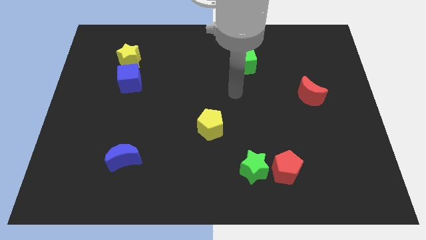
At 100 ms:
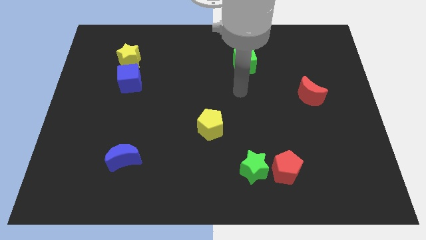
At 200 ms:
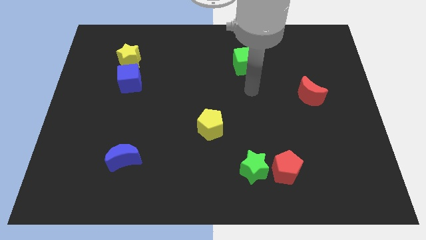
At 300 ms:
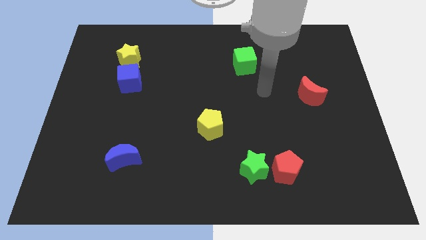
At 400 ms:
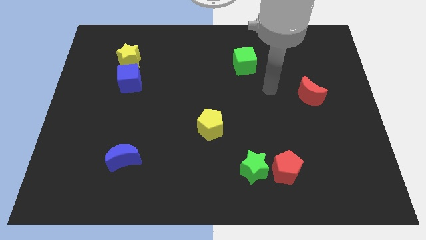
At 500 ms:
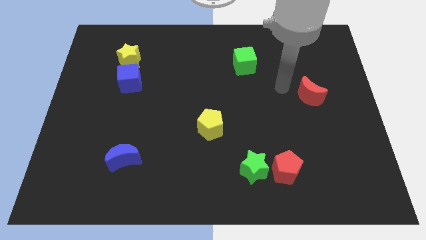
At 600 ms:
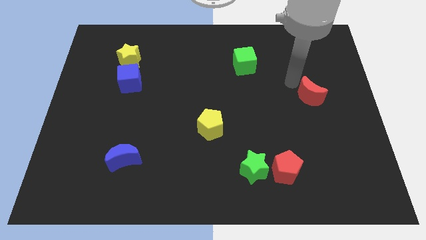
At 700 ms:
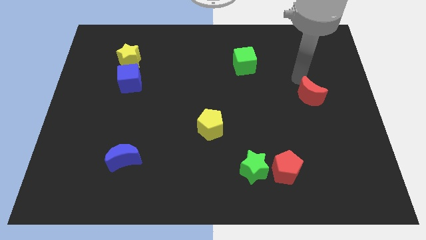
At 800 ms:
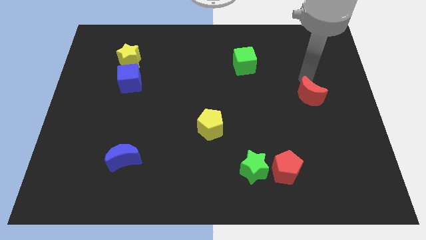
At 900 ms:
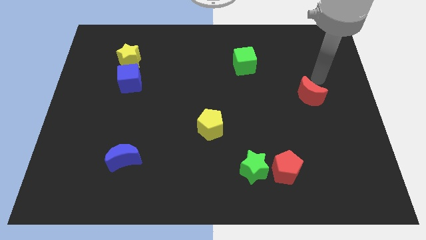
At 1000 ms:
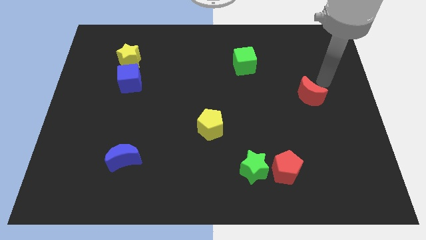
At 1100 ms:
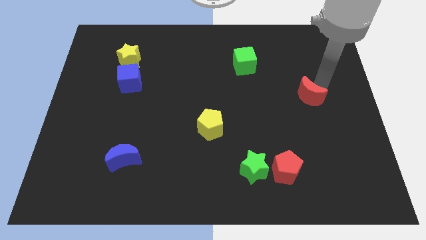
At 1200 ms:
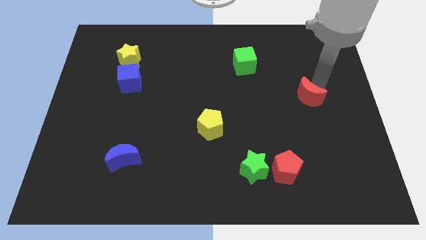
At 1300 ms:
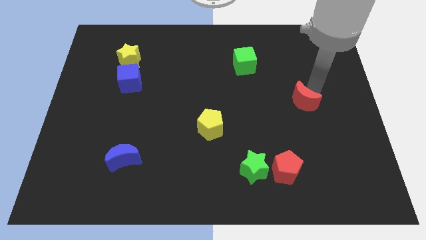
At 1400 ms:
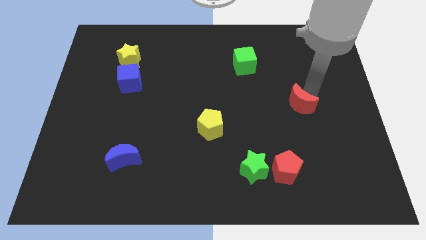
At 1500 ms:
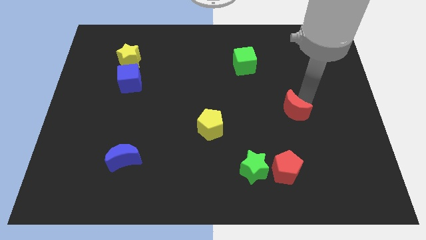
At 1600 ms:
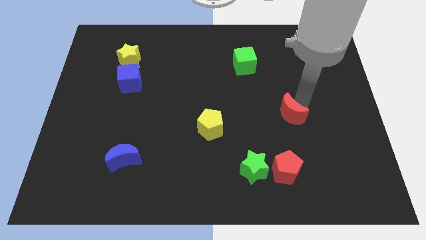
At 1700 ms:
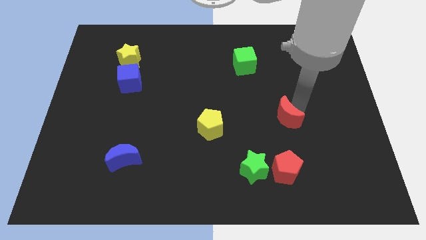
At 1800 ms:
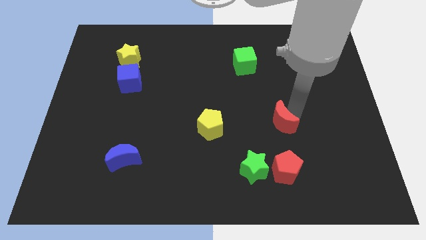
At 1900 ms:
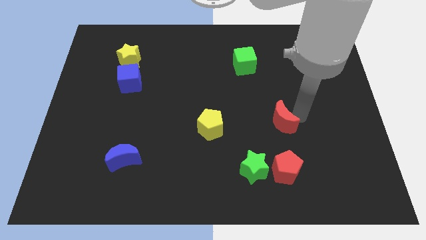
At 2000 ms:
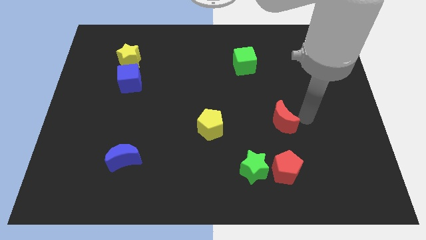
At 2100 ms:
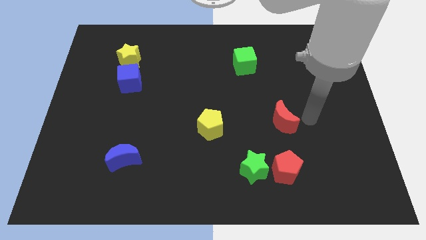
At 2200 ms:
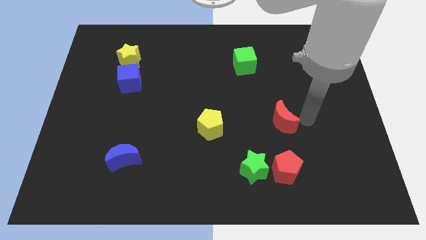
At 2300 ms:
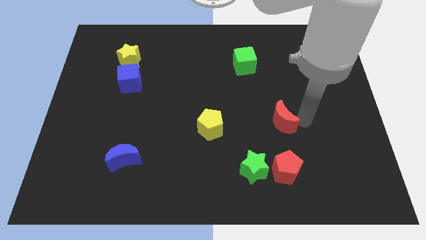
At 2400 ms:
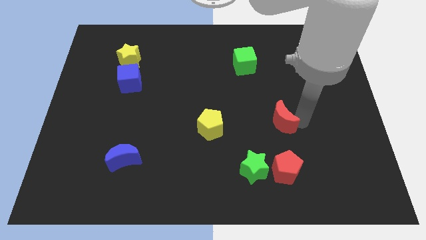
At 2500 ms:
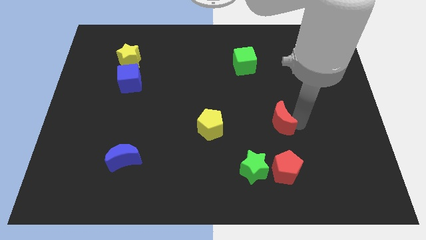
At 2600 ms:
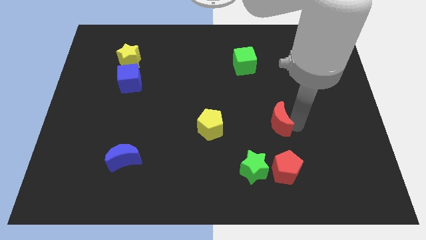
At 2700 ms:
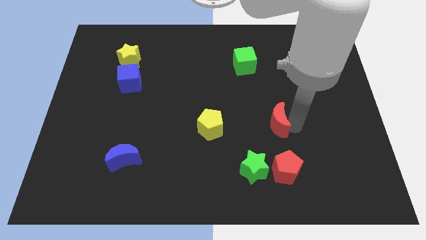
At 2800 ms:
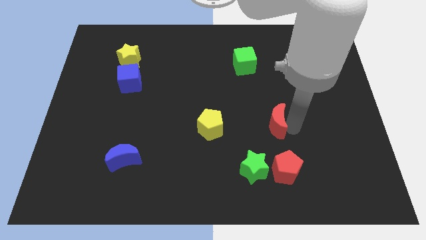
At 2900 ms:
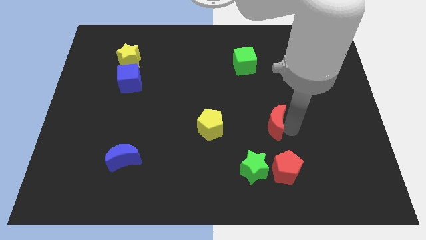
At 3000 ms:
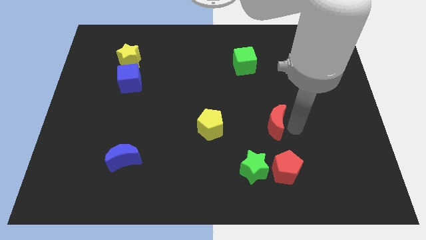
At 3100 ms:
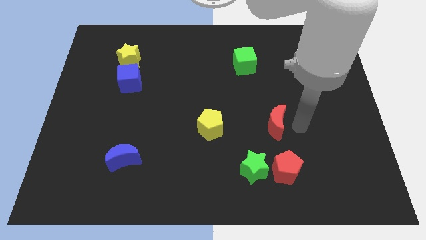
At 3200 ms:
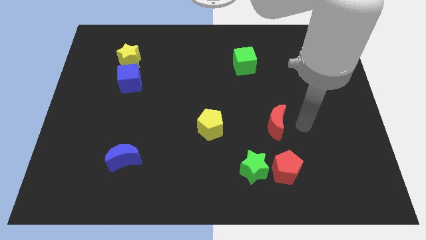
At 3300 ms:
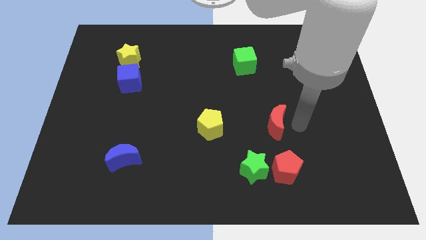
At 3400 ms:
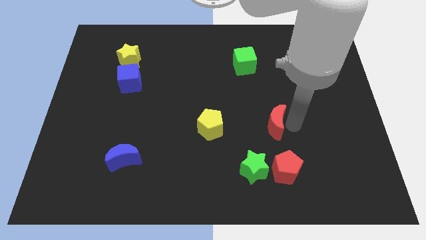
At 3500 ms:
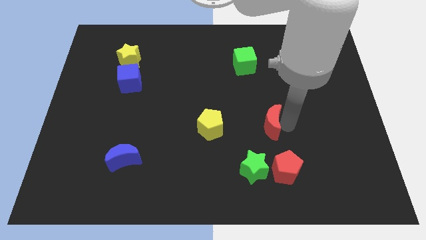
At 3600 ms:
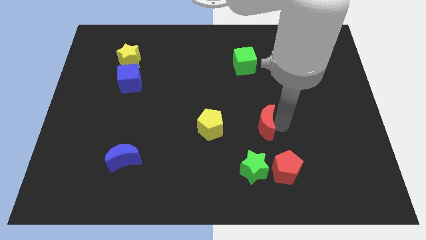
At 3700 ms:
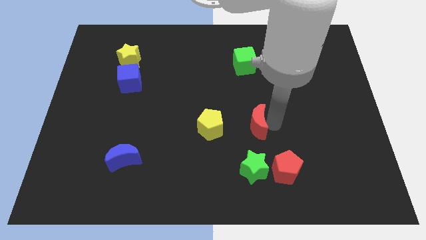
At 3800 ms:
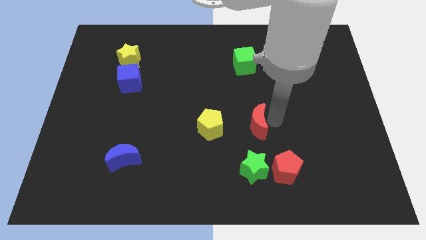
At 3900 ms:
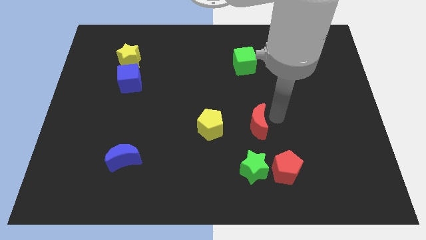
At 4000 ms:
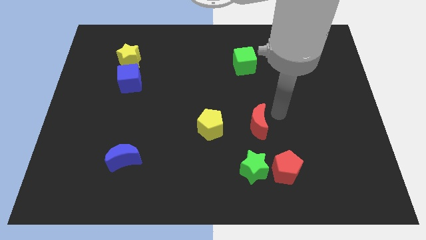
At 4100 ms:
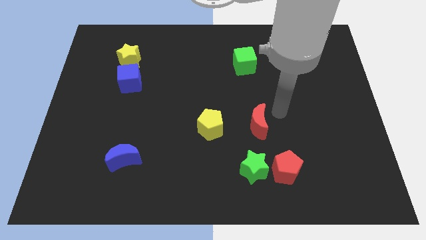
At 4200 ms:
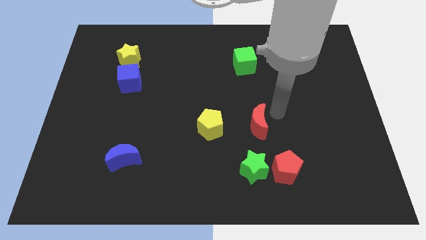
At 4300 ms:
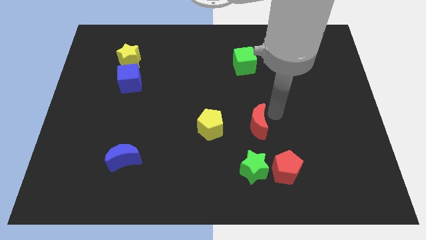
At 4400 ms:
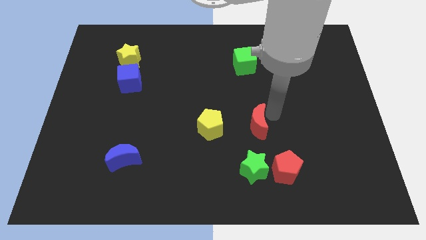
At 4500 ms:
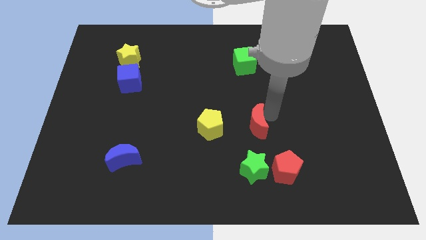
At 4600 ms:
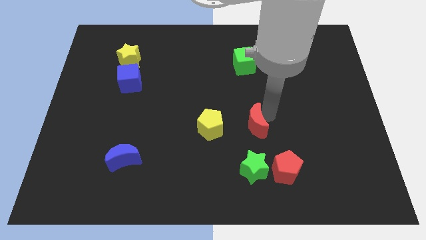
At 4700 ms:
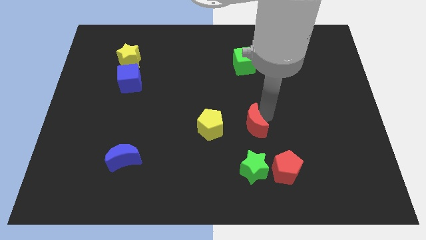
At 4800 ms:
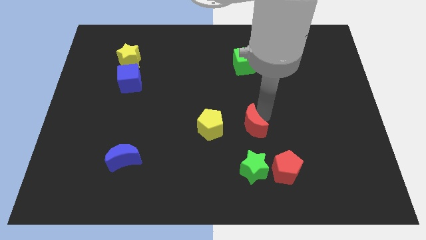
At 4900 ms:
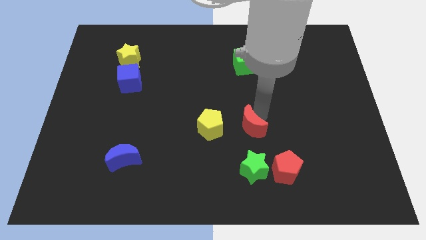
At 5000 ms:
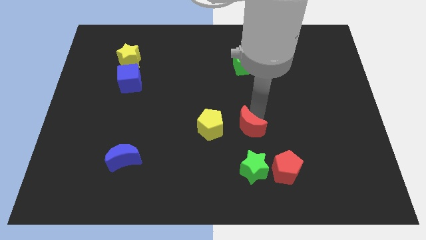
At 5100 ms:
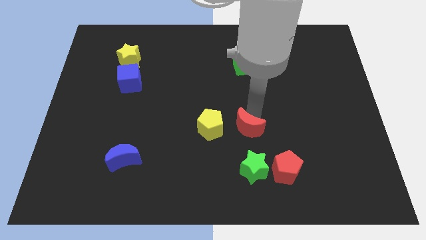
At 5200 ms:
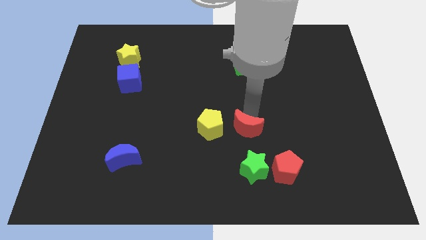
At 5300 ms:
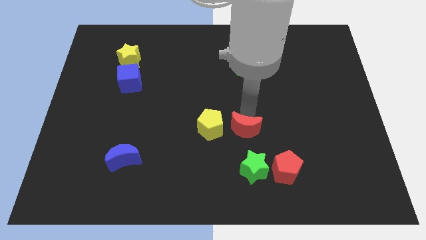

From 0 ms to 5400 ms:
move the red moon to the bottom right side of the yellow pentagon

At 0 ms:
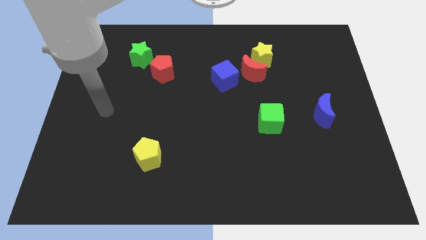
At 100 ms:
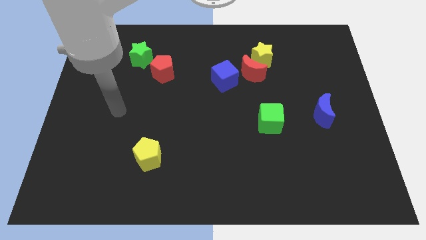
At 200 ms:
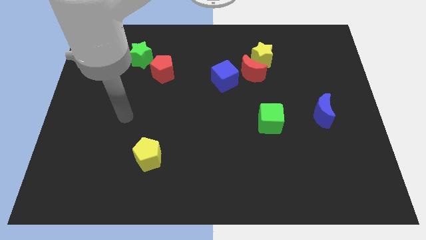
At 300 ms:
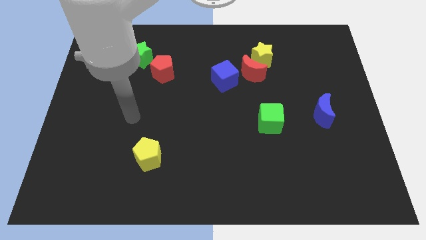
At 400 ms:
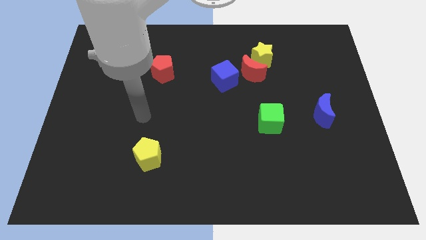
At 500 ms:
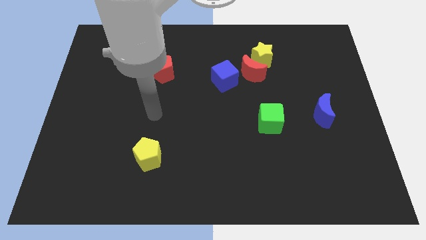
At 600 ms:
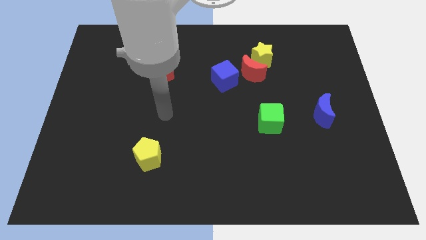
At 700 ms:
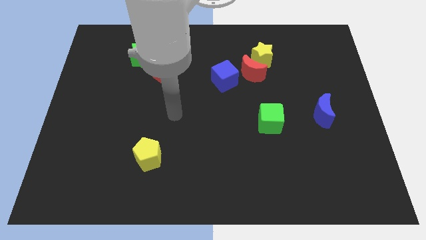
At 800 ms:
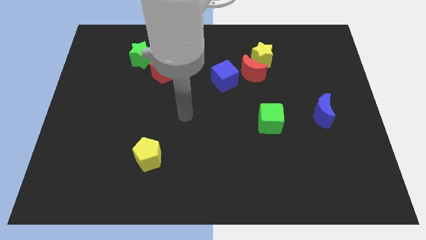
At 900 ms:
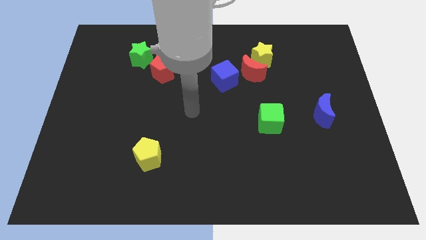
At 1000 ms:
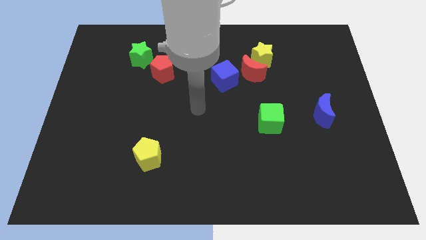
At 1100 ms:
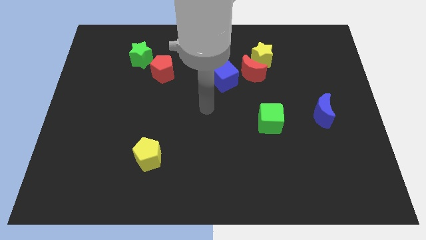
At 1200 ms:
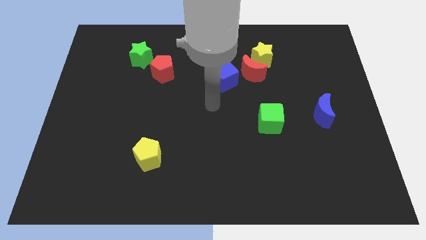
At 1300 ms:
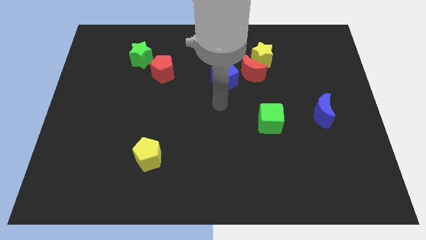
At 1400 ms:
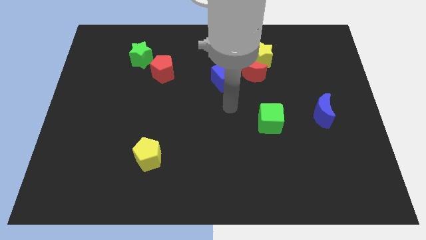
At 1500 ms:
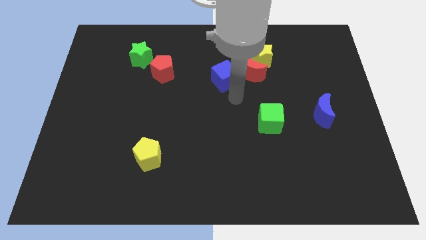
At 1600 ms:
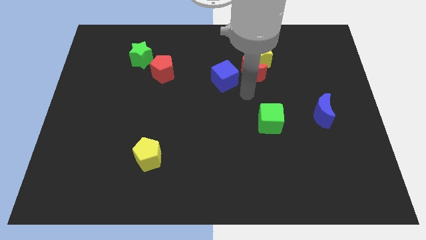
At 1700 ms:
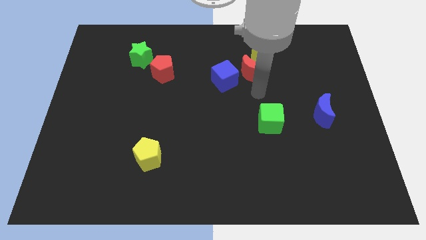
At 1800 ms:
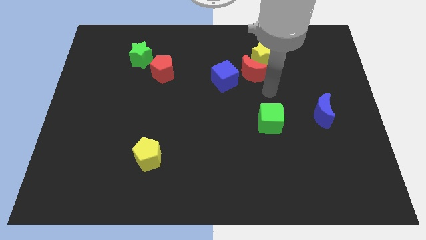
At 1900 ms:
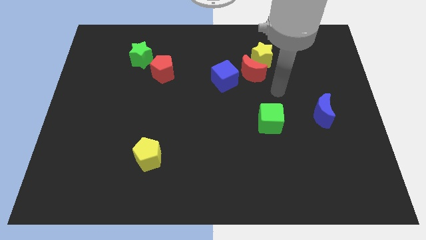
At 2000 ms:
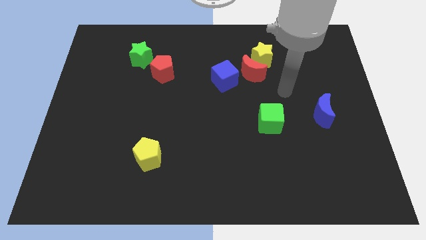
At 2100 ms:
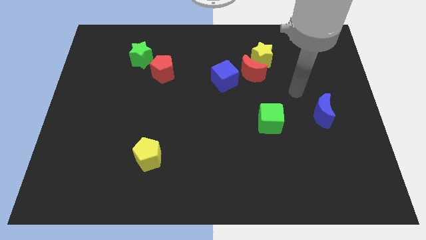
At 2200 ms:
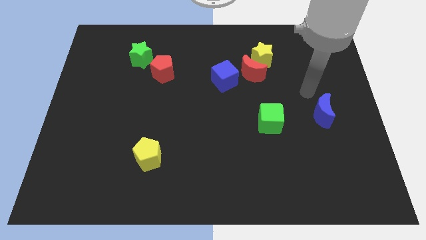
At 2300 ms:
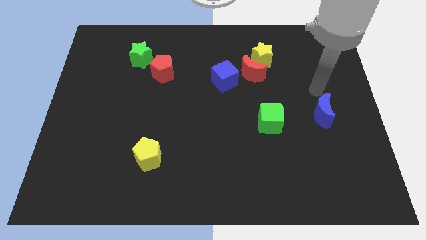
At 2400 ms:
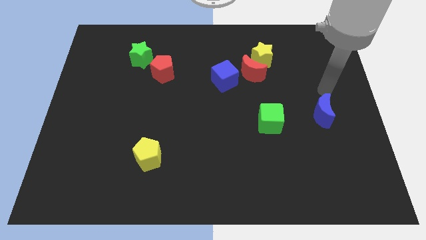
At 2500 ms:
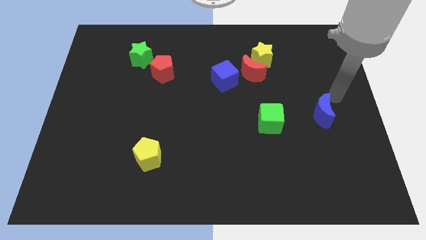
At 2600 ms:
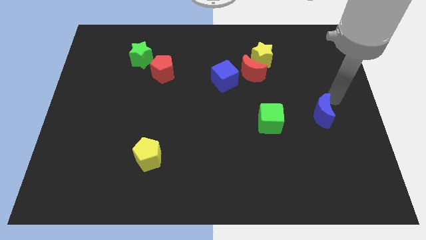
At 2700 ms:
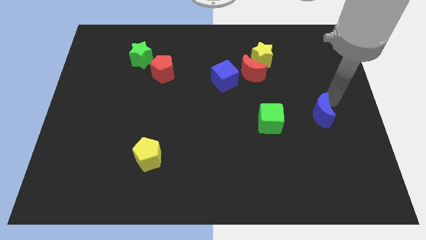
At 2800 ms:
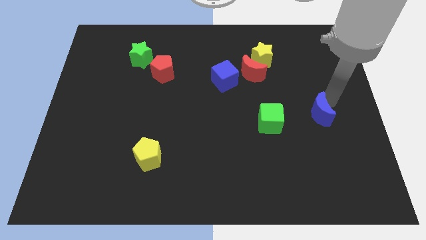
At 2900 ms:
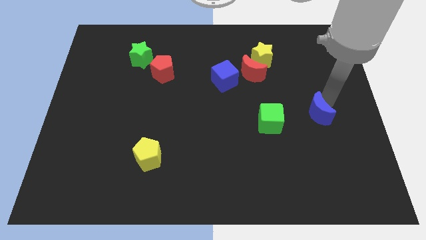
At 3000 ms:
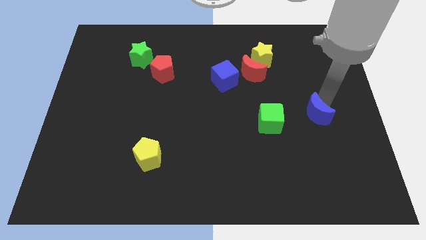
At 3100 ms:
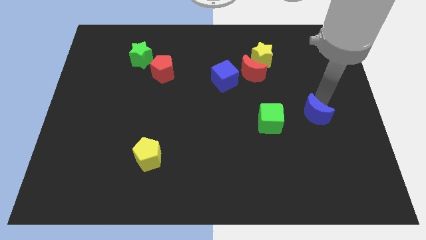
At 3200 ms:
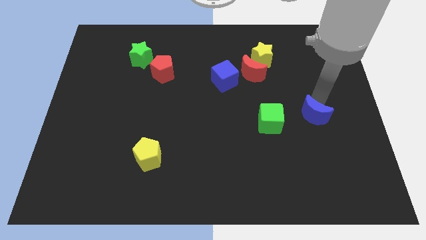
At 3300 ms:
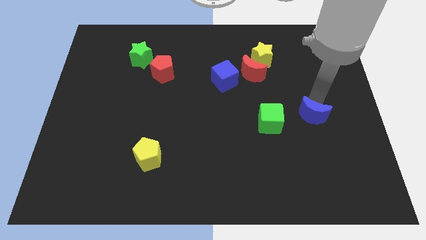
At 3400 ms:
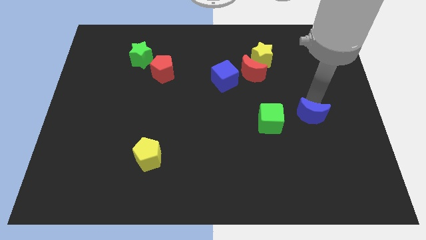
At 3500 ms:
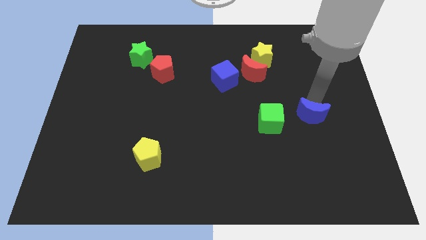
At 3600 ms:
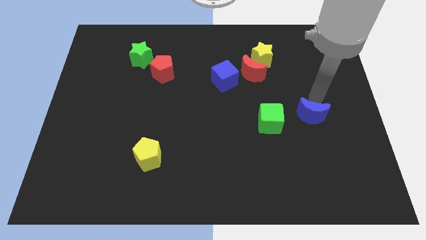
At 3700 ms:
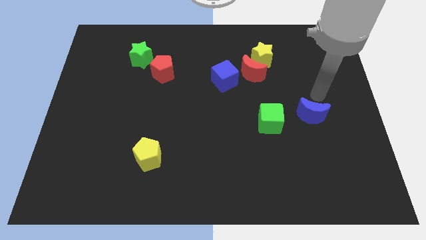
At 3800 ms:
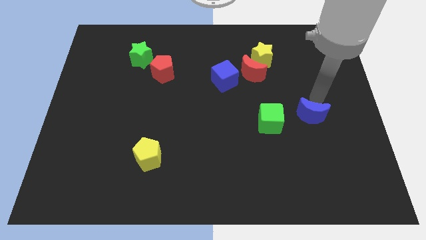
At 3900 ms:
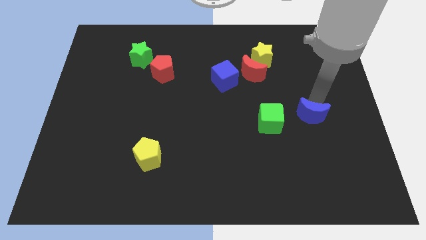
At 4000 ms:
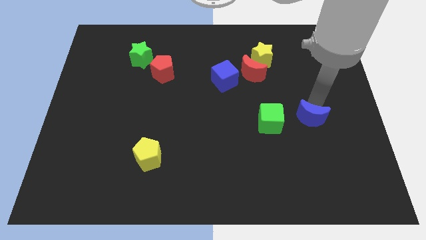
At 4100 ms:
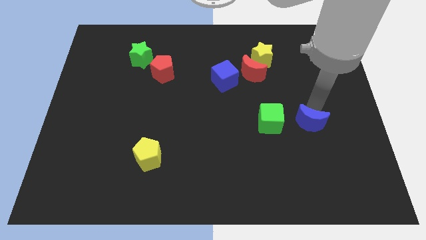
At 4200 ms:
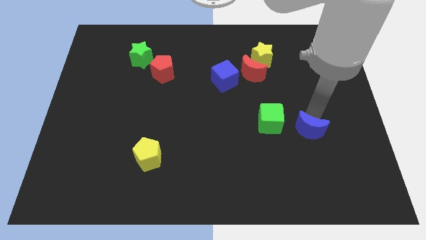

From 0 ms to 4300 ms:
slide the blue moon to the bottom right side of the green cube
